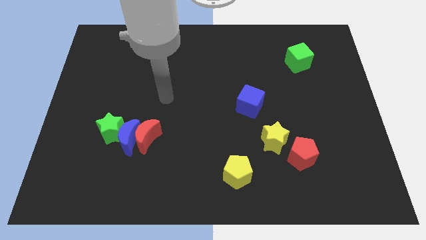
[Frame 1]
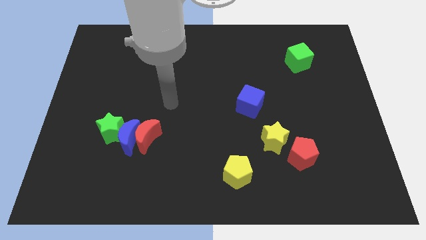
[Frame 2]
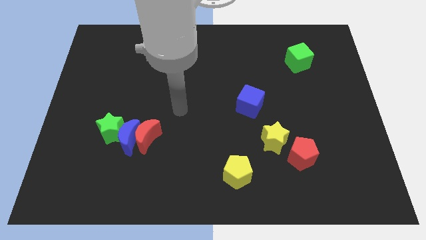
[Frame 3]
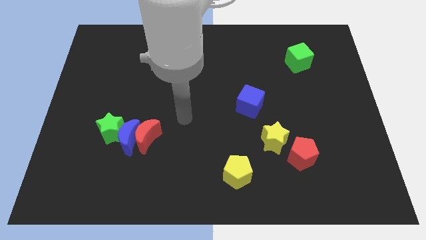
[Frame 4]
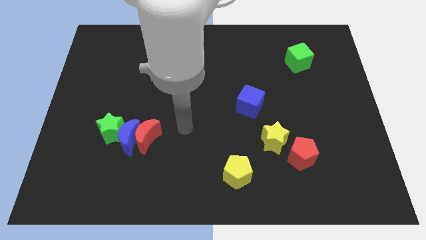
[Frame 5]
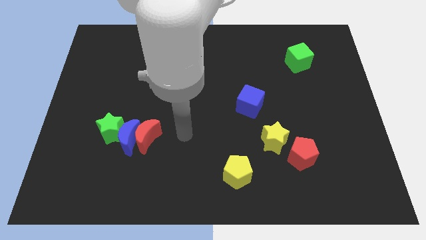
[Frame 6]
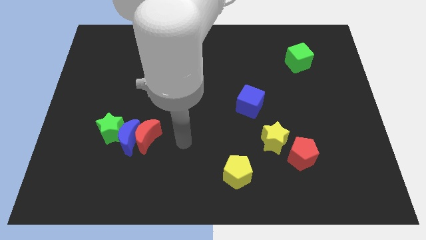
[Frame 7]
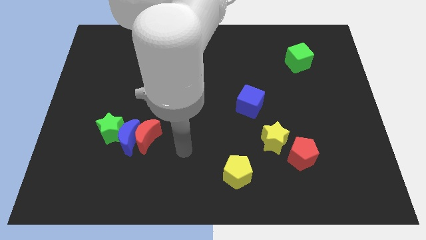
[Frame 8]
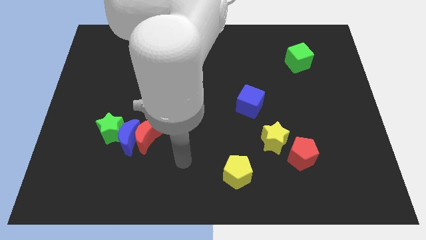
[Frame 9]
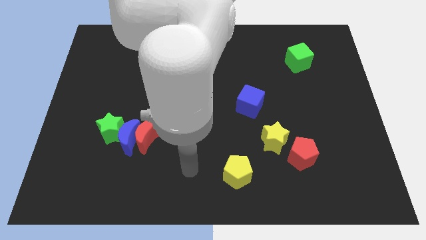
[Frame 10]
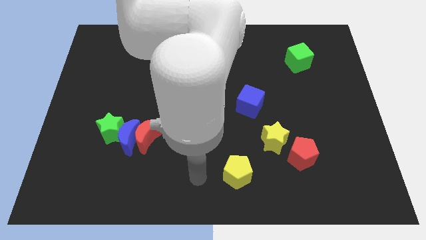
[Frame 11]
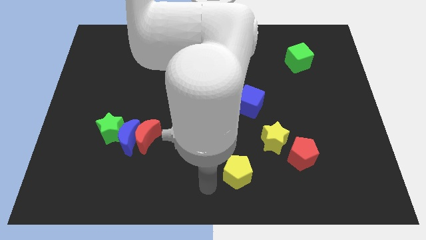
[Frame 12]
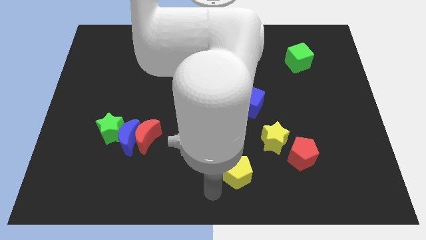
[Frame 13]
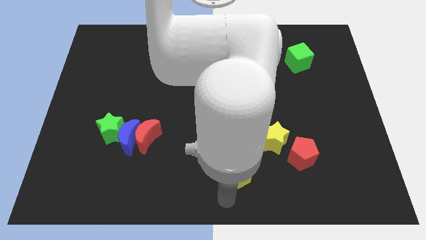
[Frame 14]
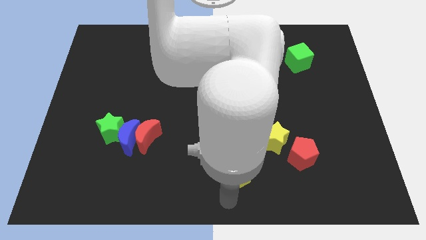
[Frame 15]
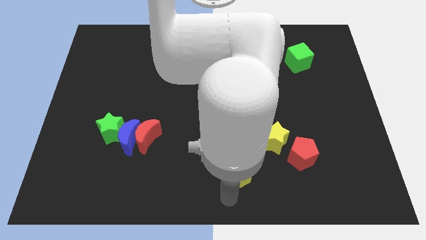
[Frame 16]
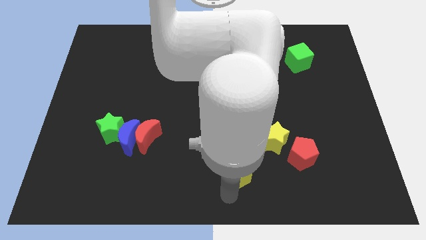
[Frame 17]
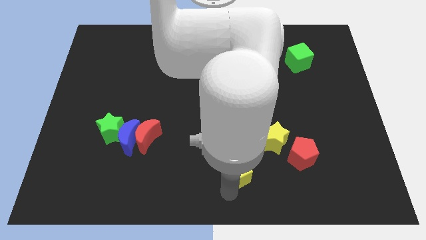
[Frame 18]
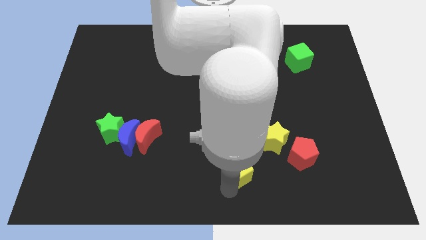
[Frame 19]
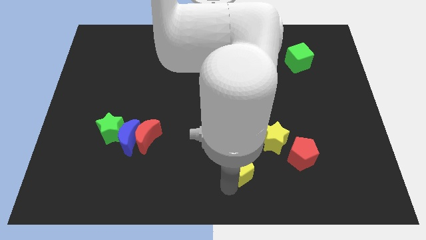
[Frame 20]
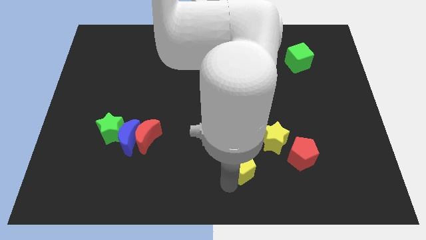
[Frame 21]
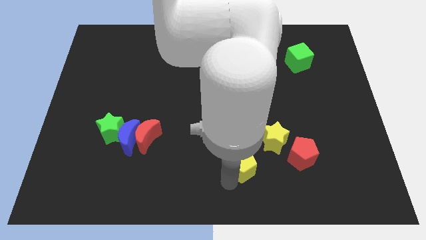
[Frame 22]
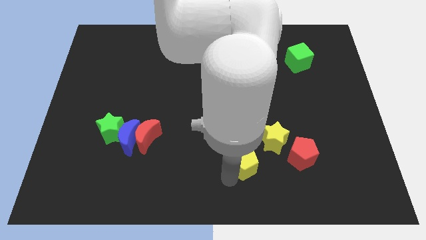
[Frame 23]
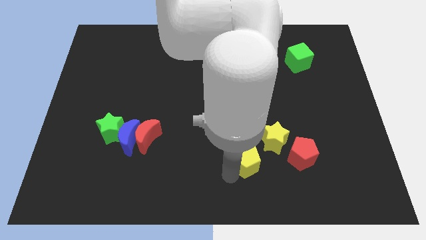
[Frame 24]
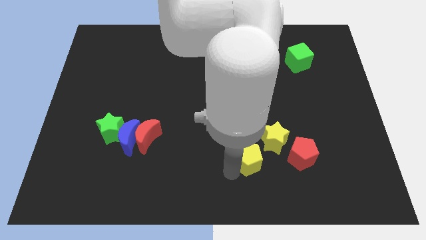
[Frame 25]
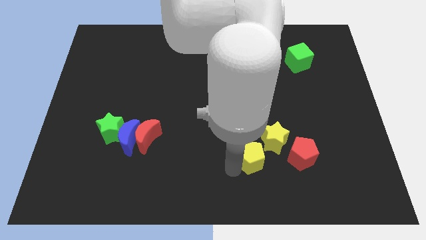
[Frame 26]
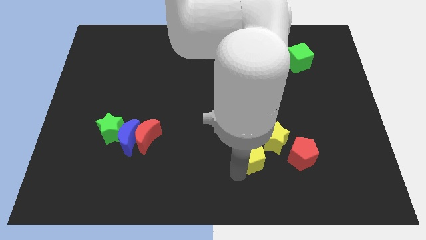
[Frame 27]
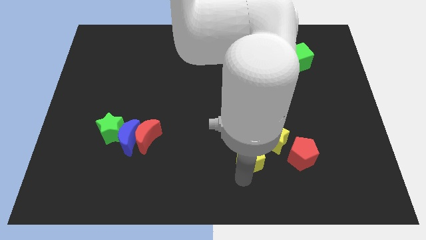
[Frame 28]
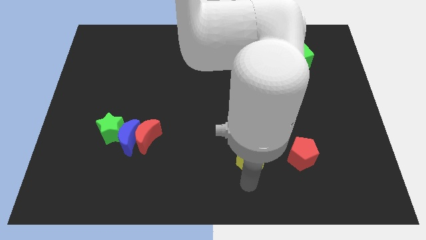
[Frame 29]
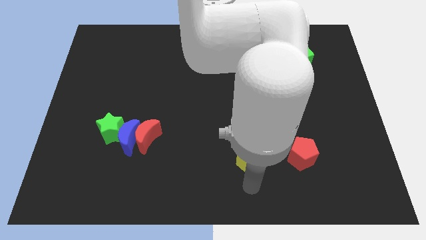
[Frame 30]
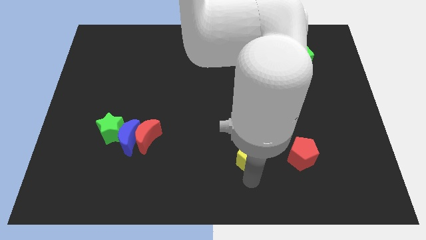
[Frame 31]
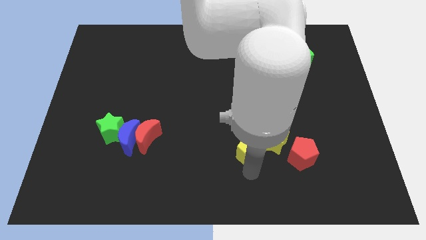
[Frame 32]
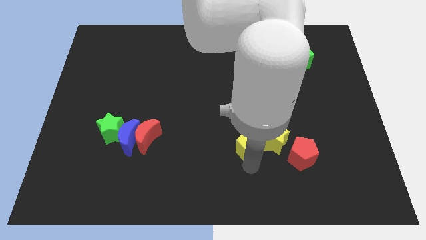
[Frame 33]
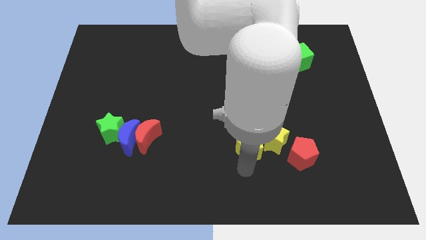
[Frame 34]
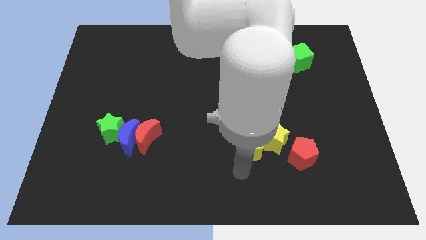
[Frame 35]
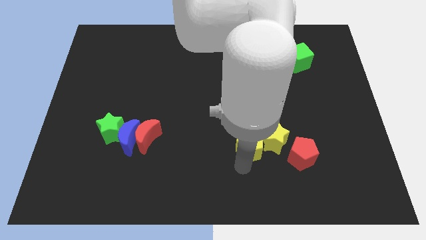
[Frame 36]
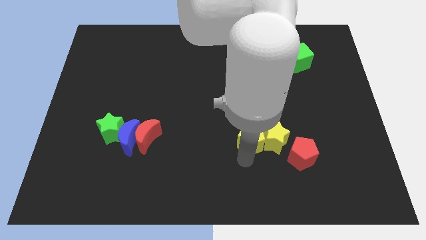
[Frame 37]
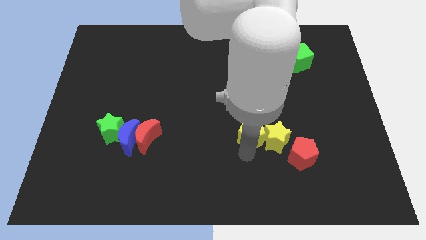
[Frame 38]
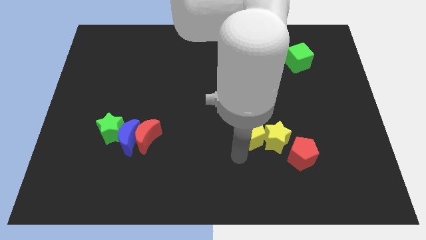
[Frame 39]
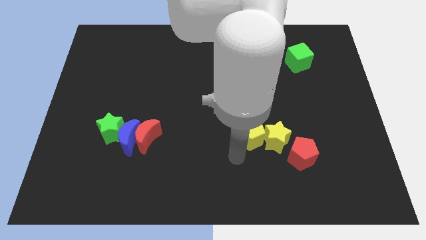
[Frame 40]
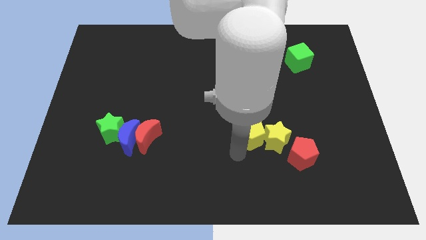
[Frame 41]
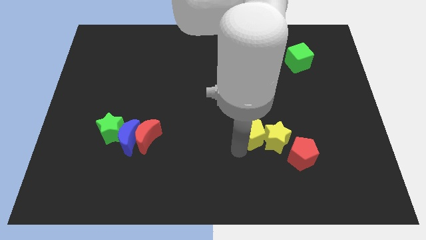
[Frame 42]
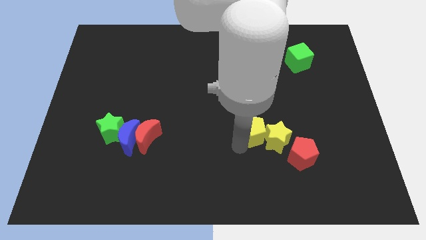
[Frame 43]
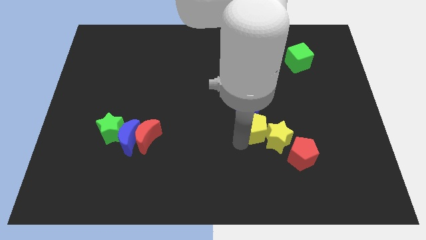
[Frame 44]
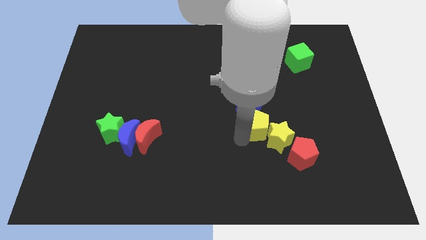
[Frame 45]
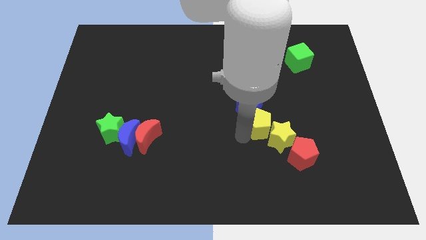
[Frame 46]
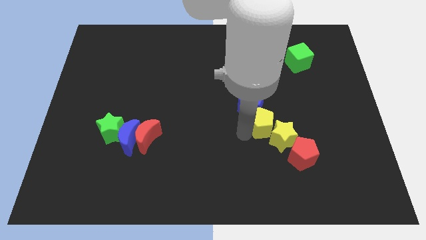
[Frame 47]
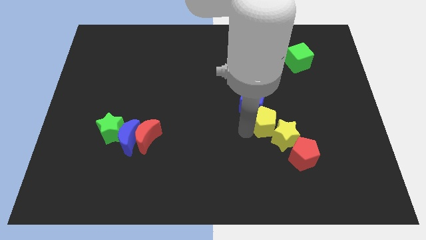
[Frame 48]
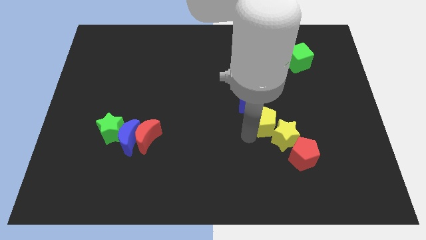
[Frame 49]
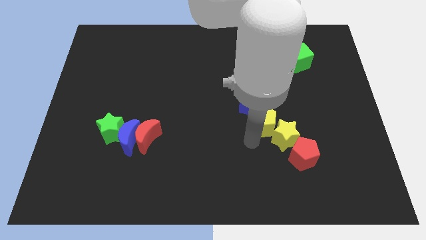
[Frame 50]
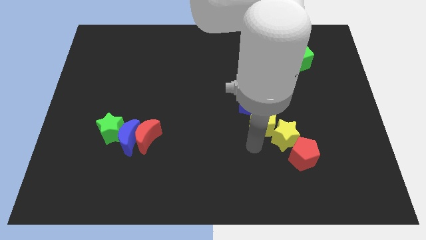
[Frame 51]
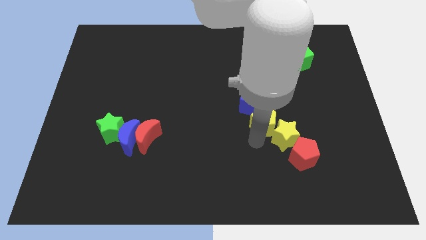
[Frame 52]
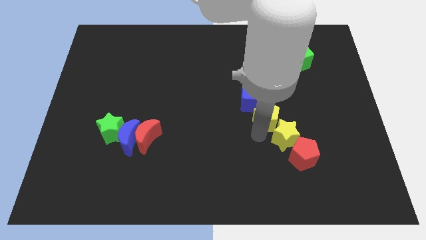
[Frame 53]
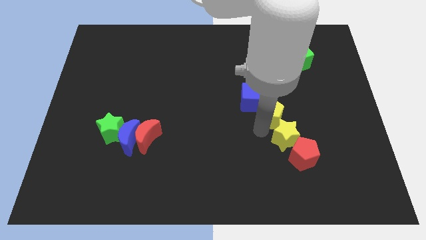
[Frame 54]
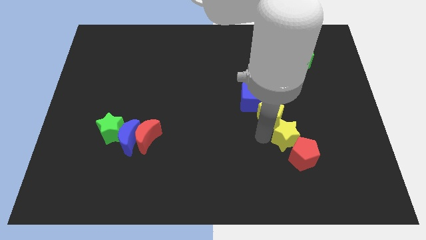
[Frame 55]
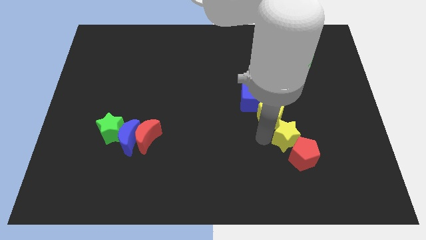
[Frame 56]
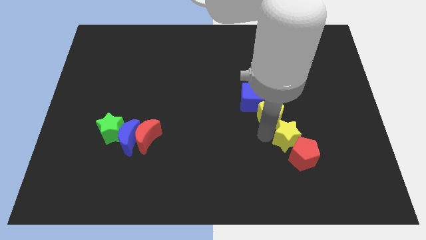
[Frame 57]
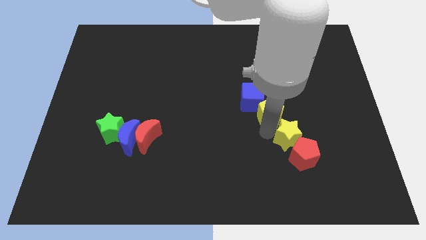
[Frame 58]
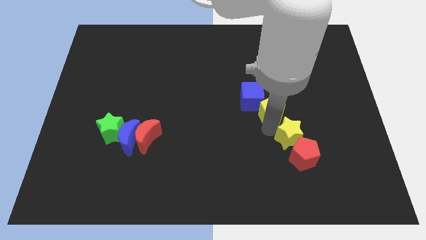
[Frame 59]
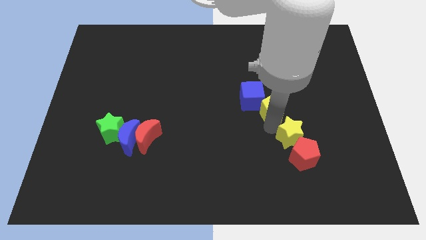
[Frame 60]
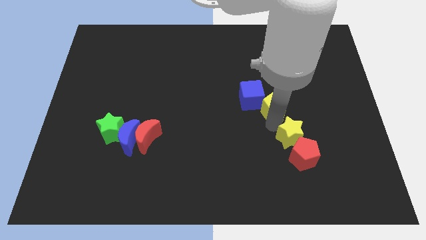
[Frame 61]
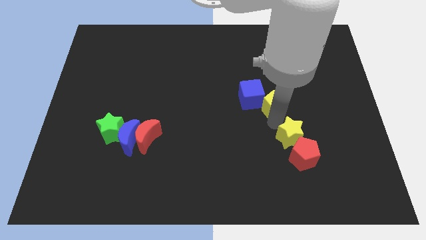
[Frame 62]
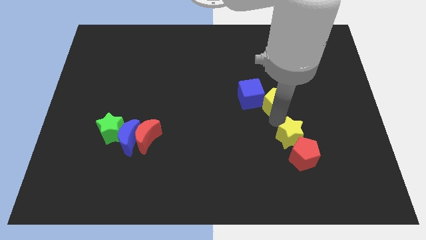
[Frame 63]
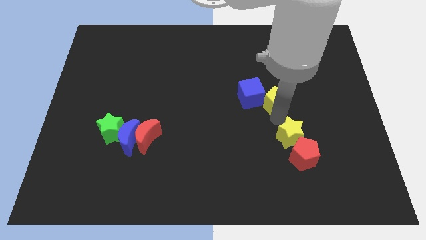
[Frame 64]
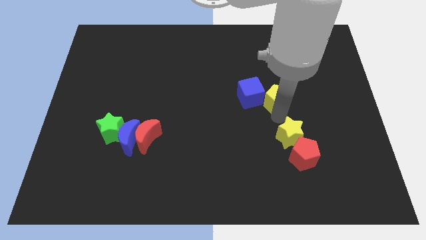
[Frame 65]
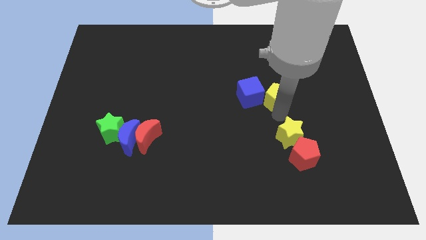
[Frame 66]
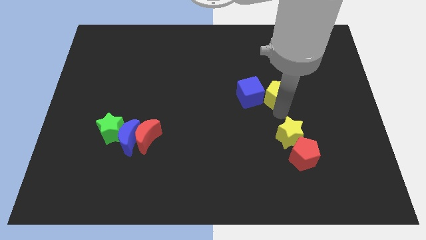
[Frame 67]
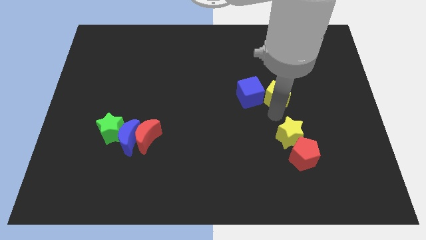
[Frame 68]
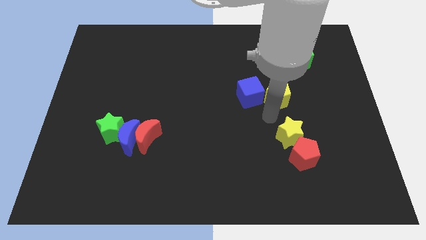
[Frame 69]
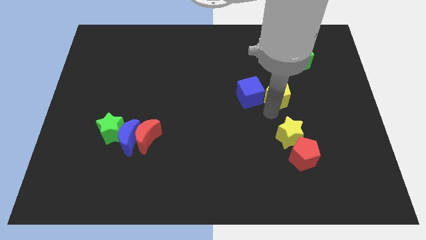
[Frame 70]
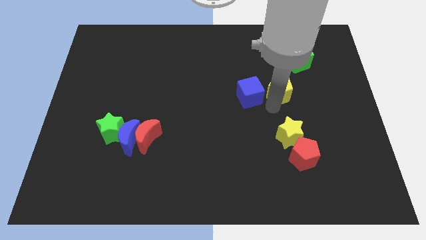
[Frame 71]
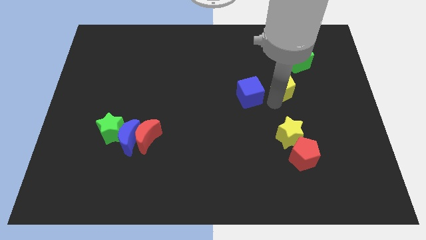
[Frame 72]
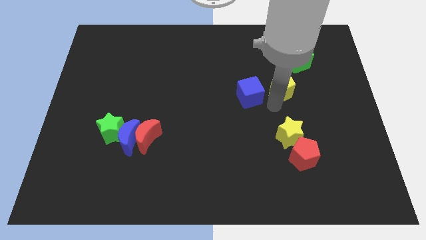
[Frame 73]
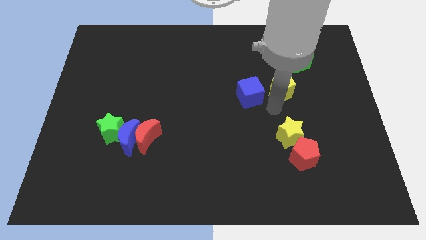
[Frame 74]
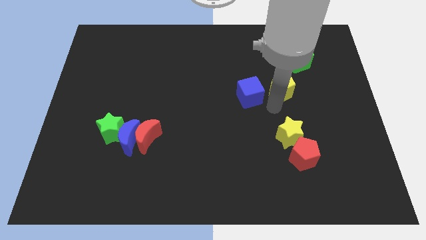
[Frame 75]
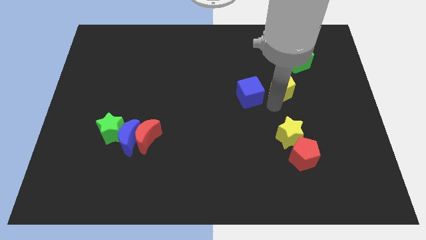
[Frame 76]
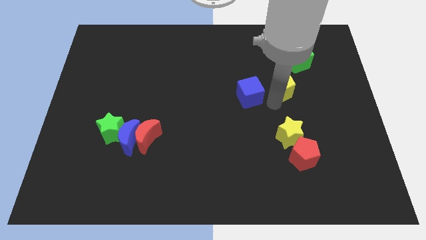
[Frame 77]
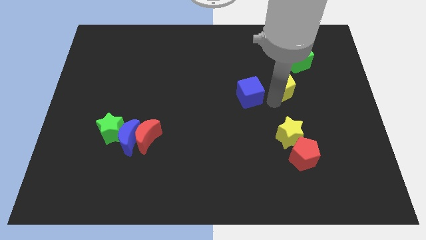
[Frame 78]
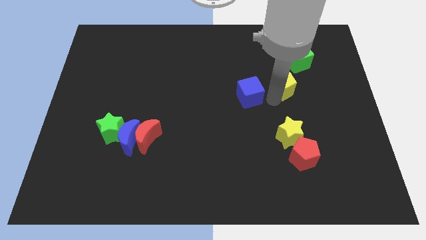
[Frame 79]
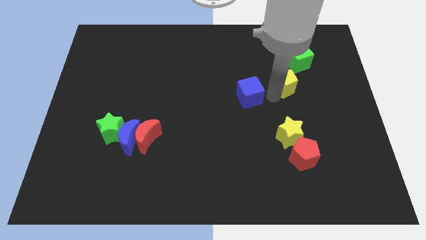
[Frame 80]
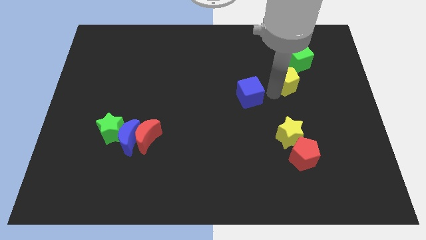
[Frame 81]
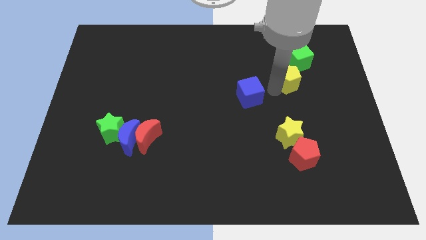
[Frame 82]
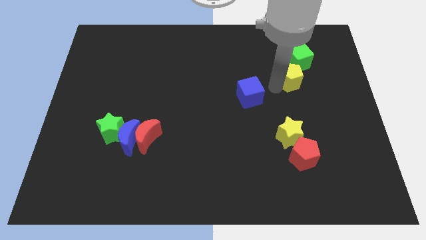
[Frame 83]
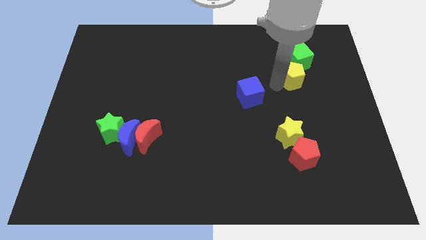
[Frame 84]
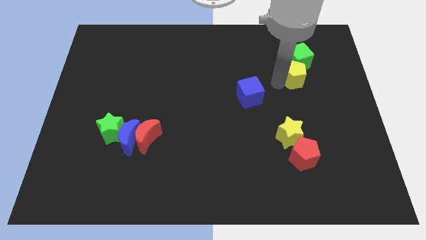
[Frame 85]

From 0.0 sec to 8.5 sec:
push the yellow pentagon towards the green cube
